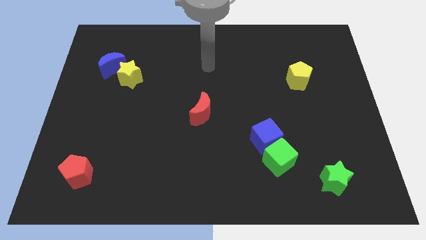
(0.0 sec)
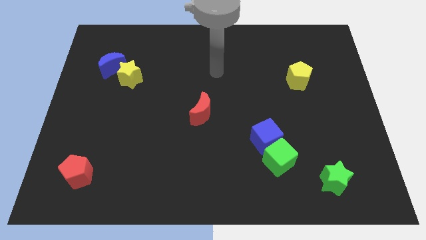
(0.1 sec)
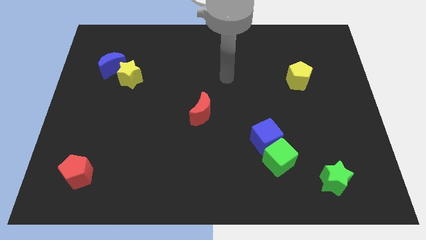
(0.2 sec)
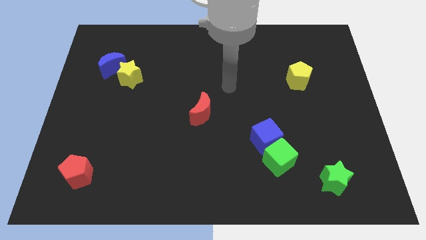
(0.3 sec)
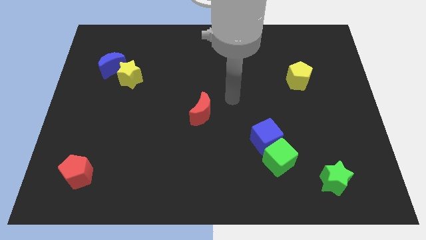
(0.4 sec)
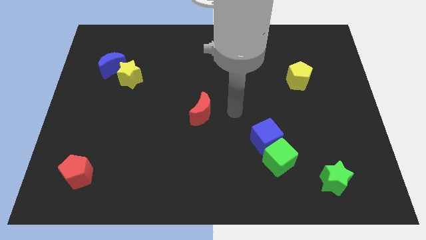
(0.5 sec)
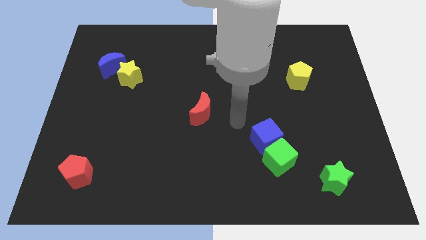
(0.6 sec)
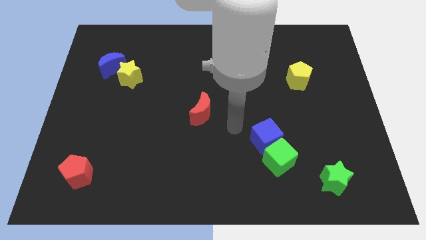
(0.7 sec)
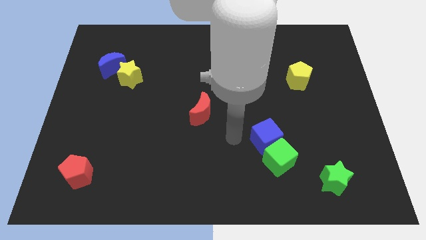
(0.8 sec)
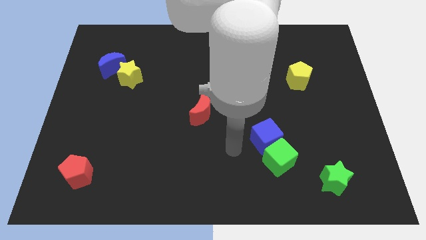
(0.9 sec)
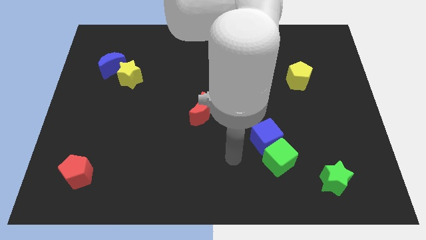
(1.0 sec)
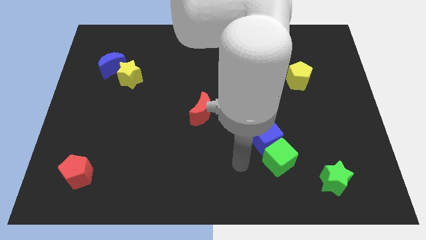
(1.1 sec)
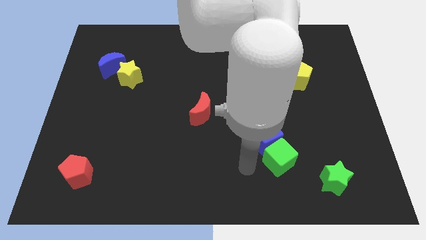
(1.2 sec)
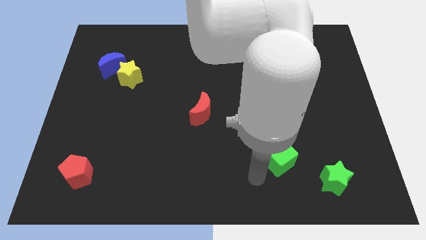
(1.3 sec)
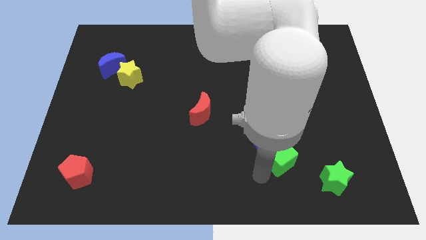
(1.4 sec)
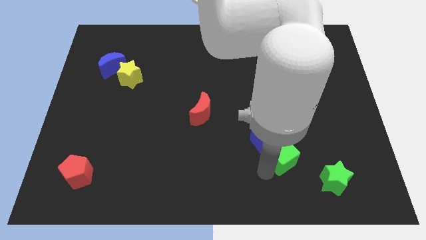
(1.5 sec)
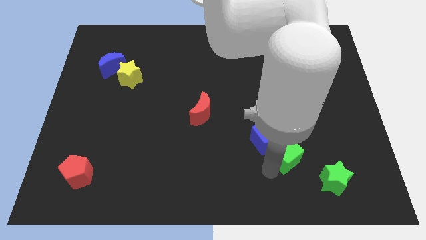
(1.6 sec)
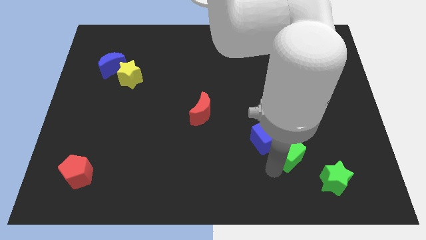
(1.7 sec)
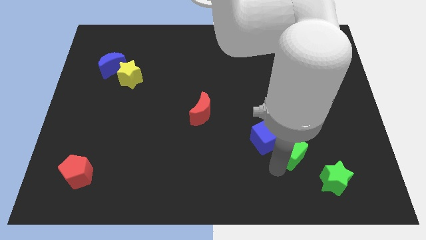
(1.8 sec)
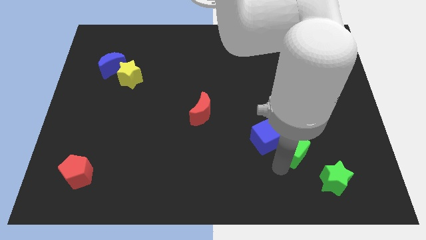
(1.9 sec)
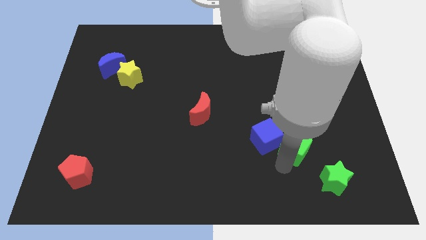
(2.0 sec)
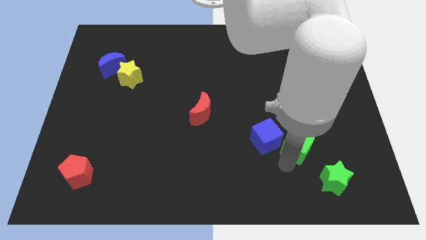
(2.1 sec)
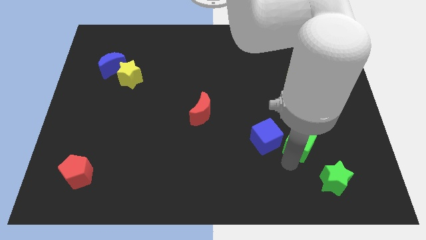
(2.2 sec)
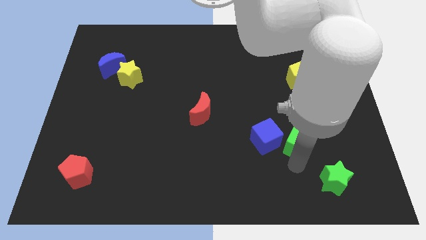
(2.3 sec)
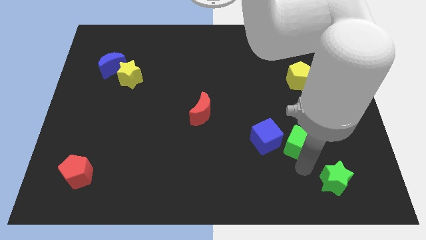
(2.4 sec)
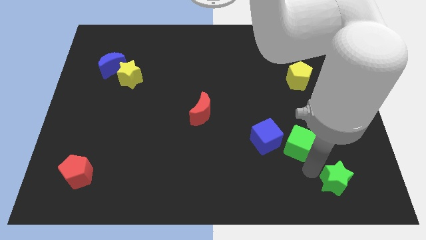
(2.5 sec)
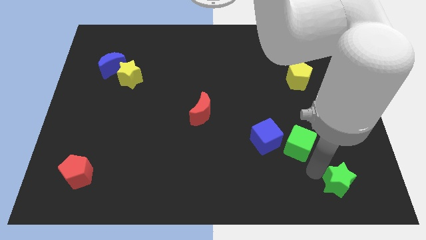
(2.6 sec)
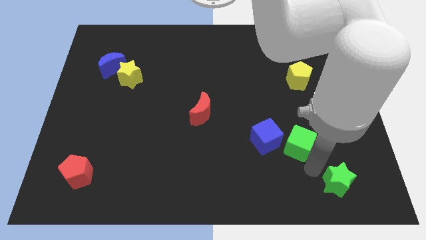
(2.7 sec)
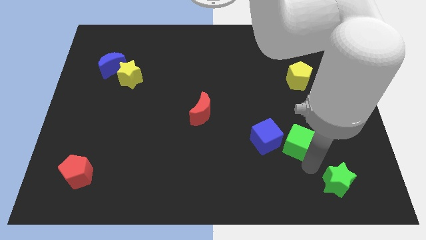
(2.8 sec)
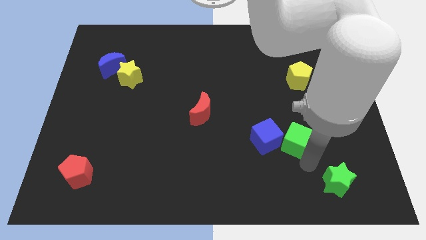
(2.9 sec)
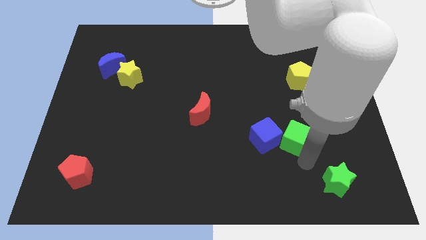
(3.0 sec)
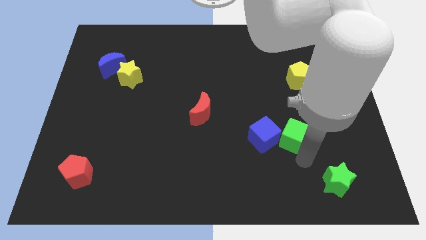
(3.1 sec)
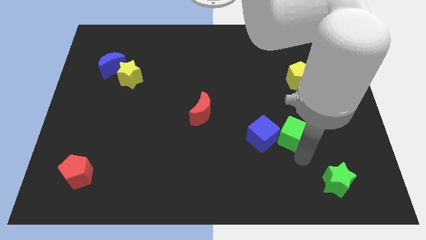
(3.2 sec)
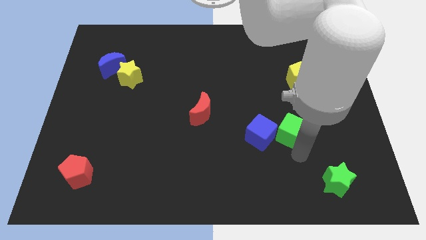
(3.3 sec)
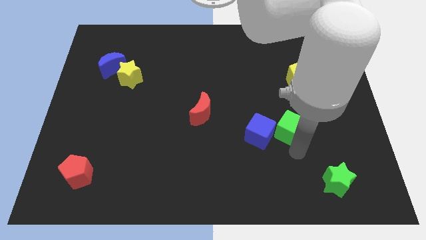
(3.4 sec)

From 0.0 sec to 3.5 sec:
move the green cube upwards a bit

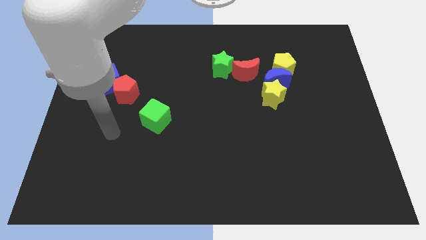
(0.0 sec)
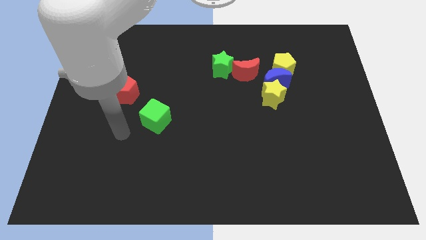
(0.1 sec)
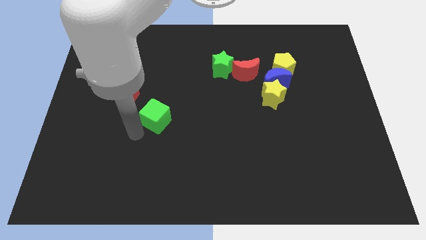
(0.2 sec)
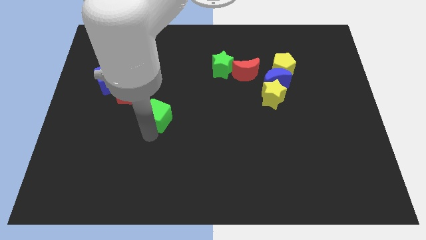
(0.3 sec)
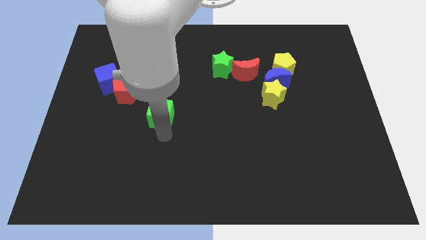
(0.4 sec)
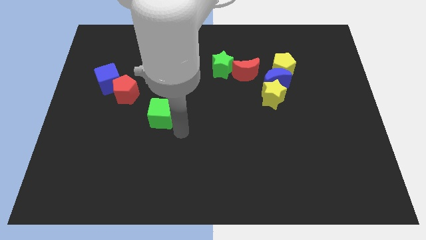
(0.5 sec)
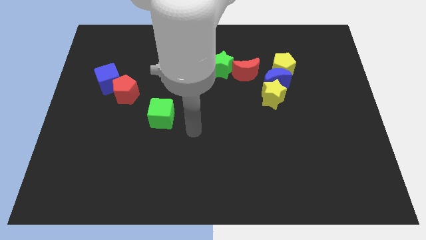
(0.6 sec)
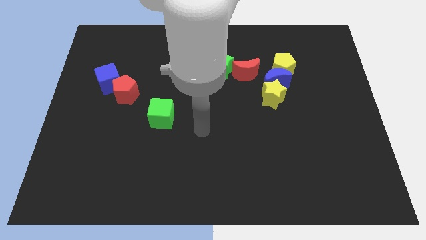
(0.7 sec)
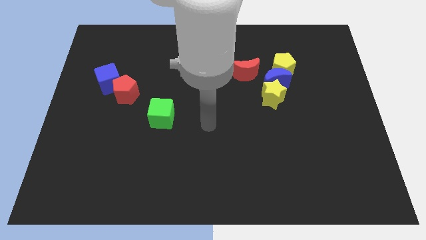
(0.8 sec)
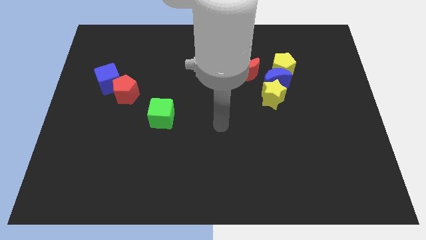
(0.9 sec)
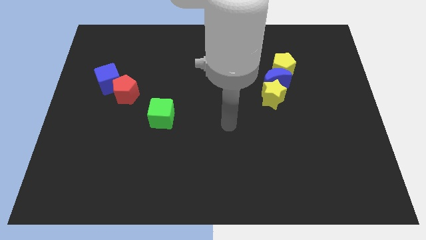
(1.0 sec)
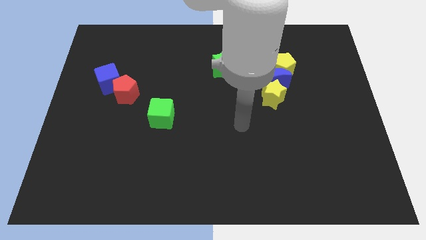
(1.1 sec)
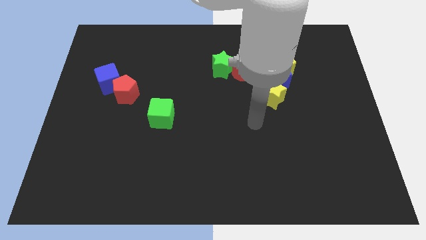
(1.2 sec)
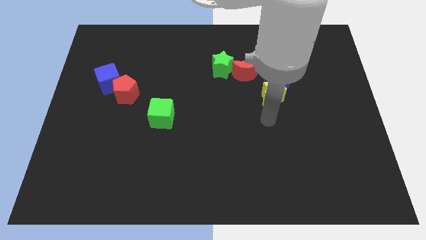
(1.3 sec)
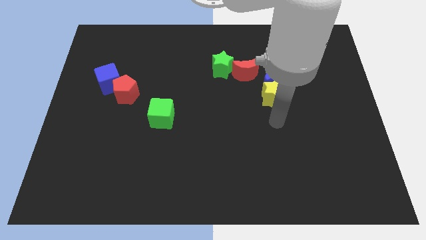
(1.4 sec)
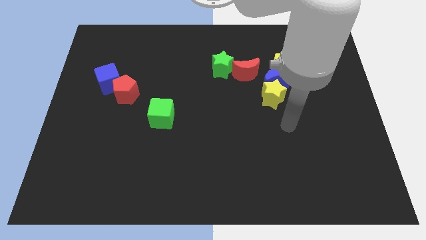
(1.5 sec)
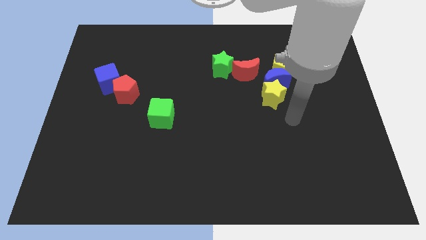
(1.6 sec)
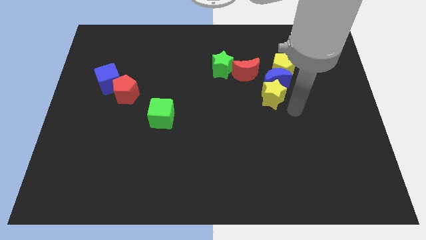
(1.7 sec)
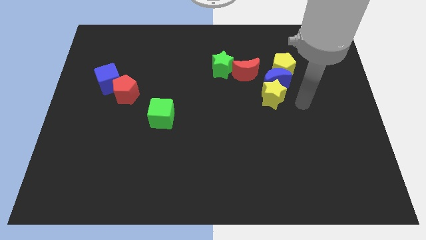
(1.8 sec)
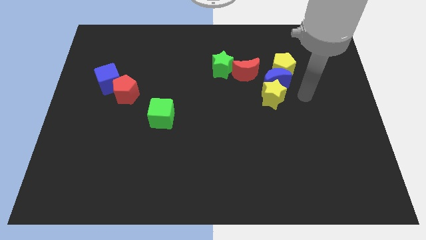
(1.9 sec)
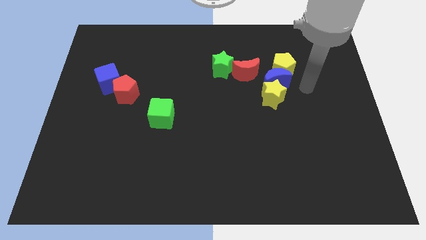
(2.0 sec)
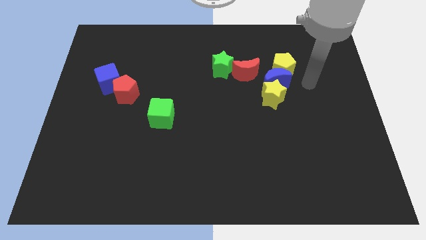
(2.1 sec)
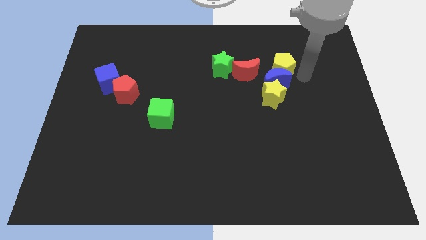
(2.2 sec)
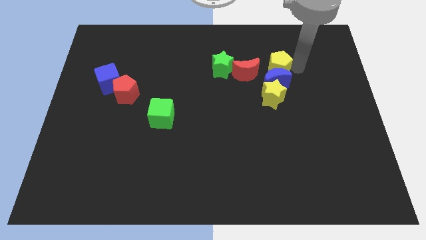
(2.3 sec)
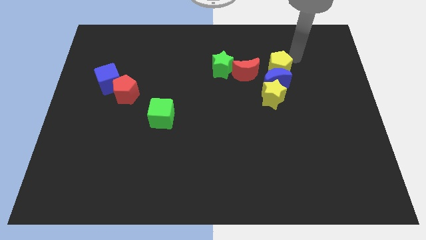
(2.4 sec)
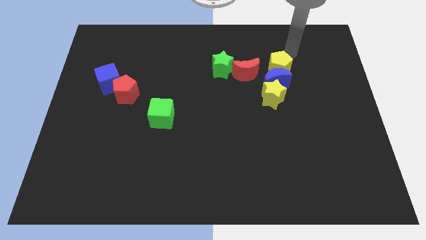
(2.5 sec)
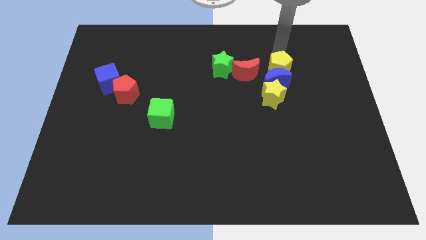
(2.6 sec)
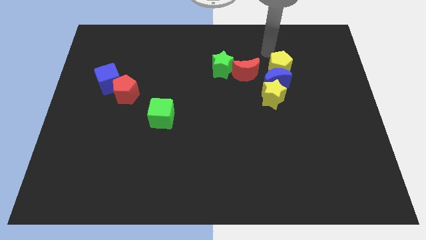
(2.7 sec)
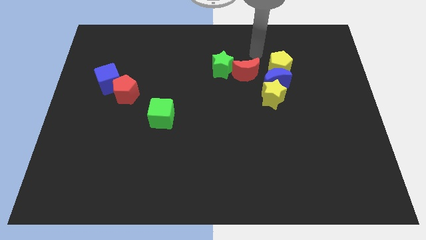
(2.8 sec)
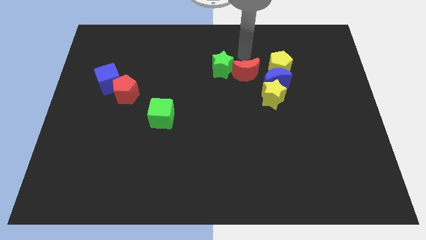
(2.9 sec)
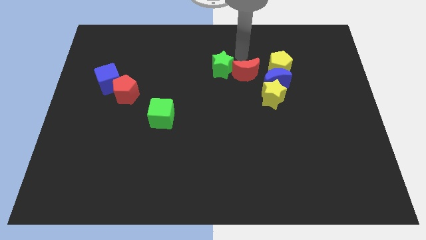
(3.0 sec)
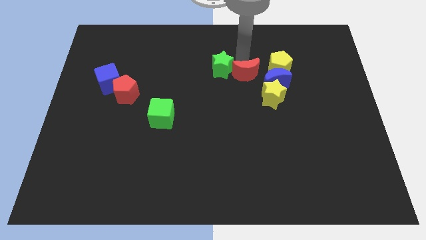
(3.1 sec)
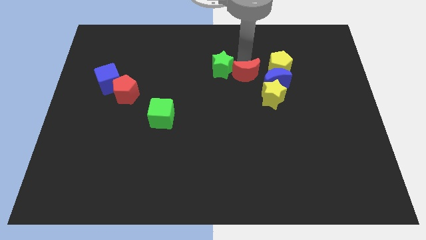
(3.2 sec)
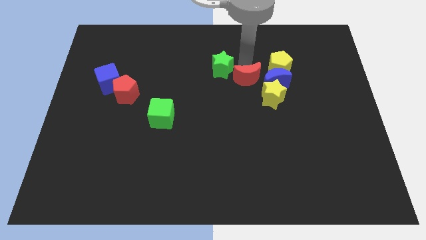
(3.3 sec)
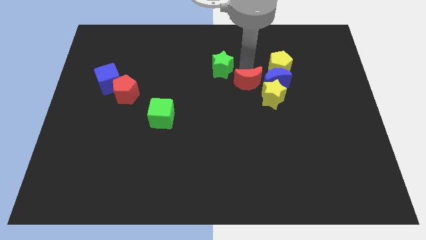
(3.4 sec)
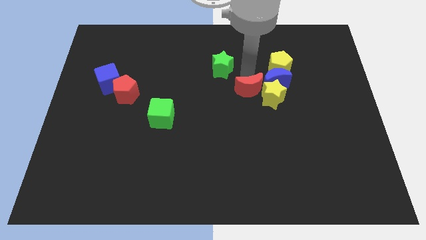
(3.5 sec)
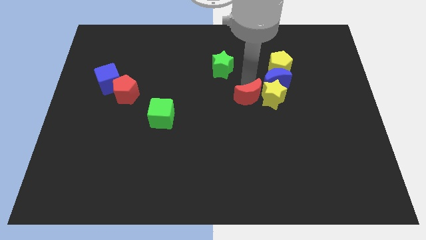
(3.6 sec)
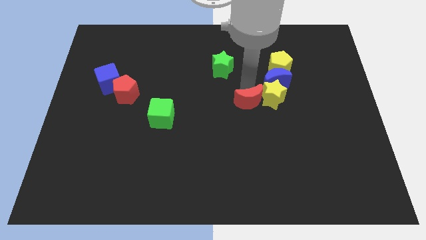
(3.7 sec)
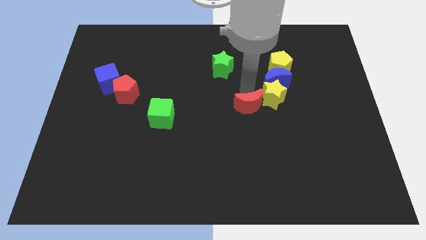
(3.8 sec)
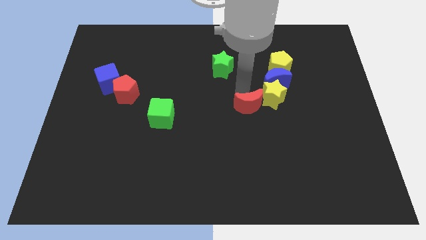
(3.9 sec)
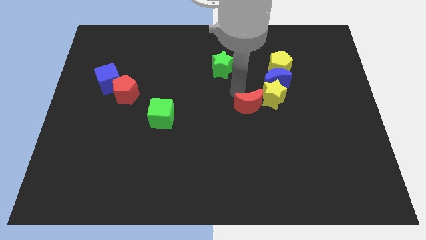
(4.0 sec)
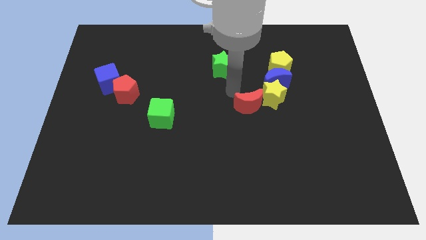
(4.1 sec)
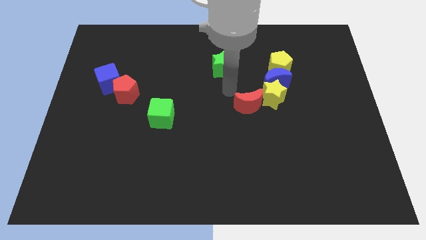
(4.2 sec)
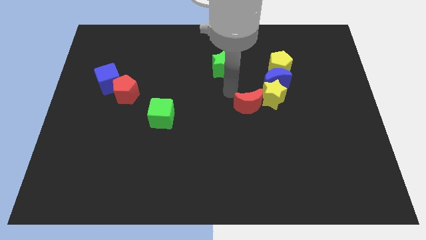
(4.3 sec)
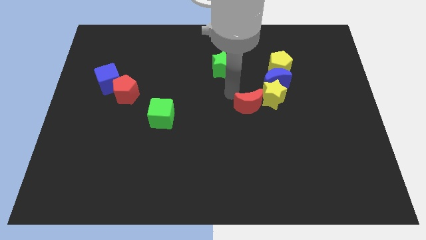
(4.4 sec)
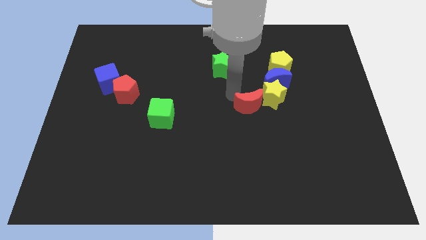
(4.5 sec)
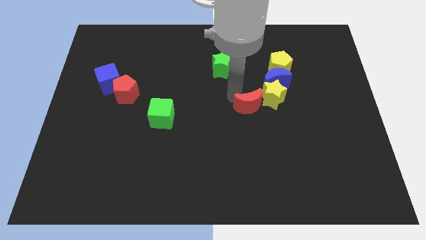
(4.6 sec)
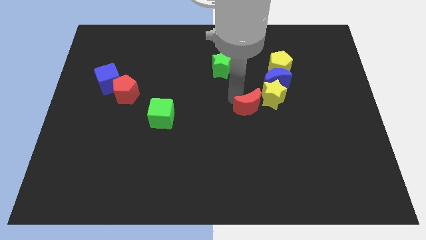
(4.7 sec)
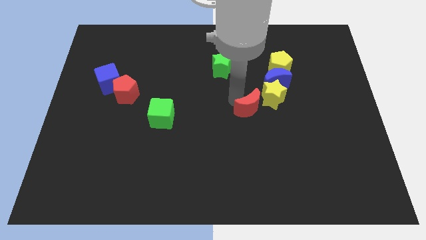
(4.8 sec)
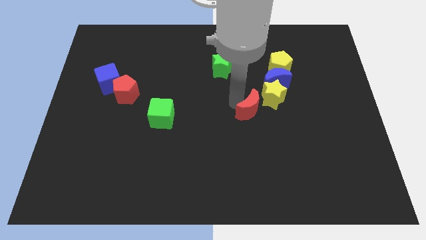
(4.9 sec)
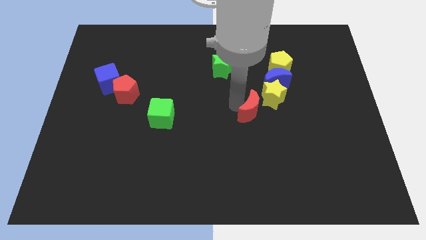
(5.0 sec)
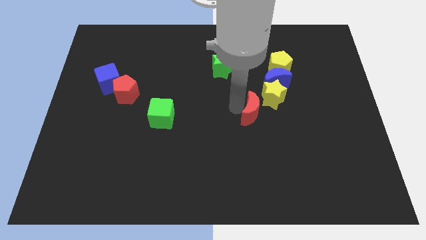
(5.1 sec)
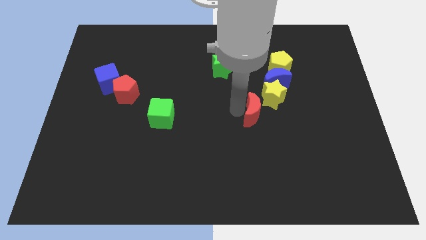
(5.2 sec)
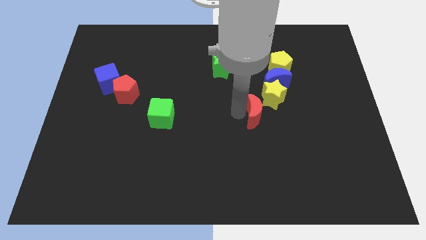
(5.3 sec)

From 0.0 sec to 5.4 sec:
push the red moon down and then to the right a little bit
